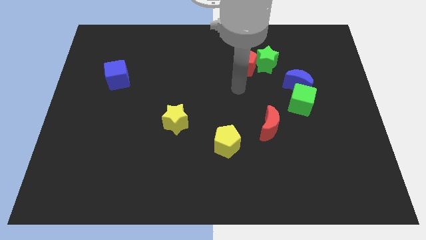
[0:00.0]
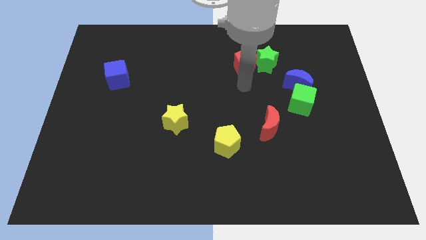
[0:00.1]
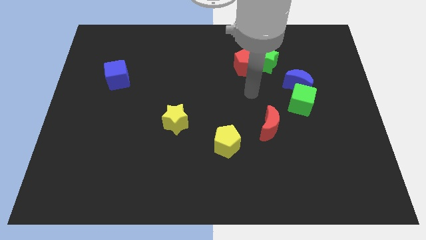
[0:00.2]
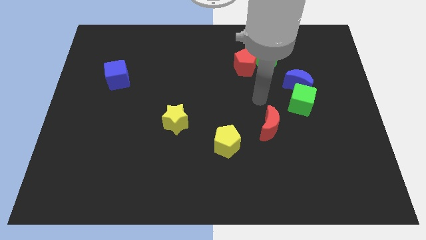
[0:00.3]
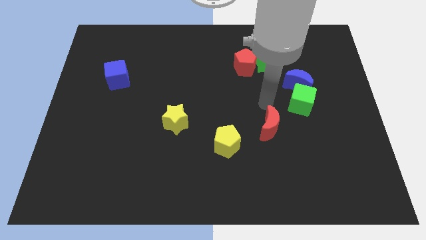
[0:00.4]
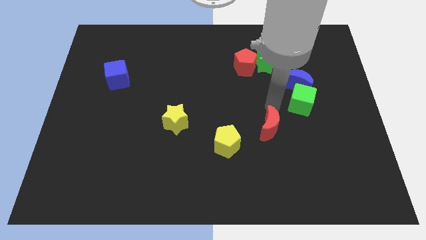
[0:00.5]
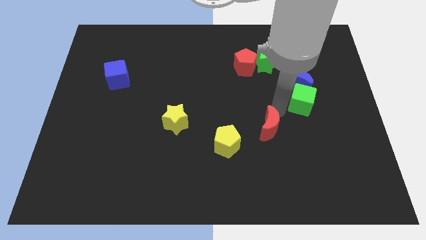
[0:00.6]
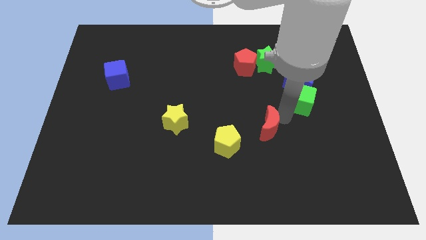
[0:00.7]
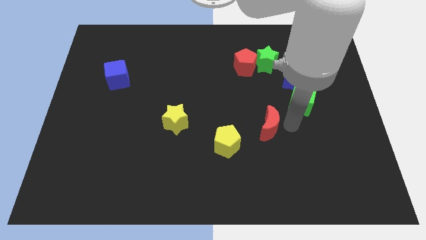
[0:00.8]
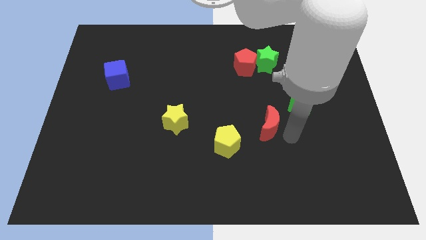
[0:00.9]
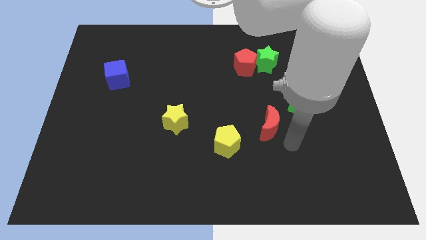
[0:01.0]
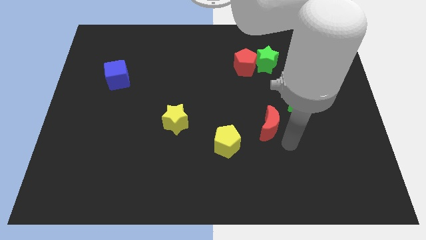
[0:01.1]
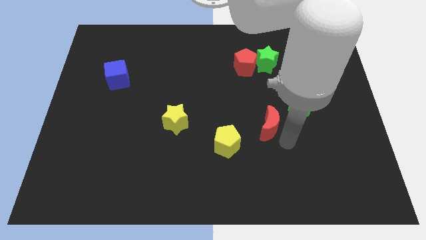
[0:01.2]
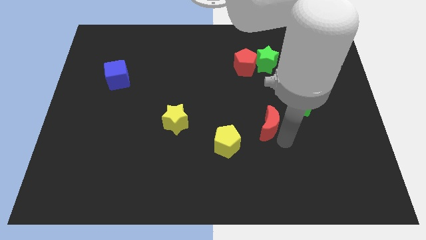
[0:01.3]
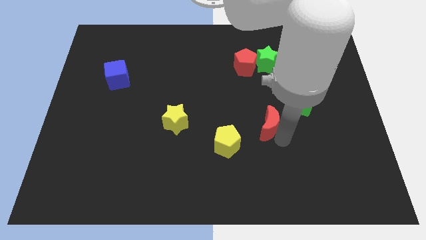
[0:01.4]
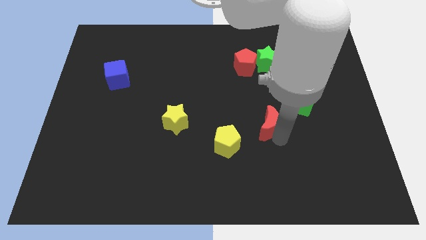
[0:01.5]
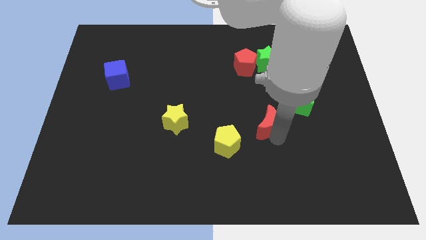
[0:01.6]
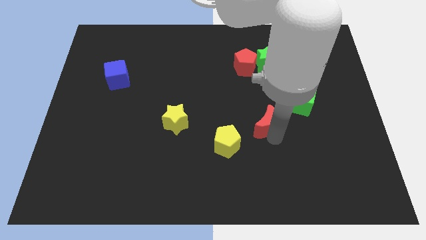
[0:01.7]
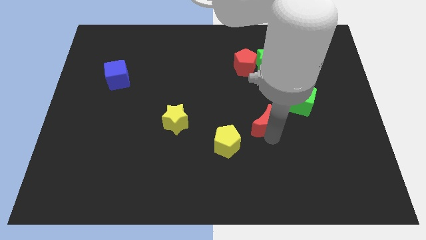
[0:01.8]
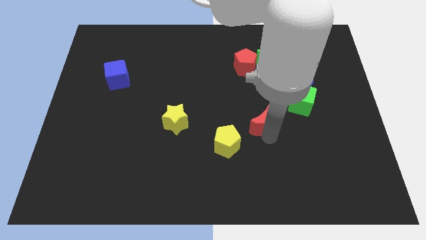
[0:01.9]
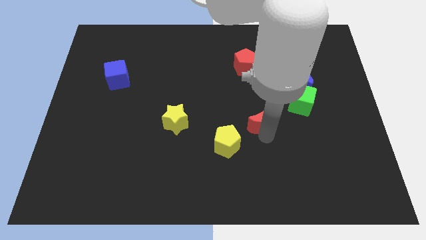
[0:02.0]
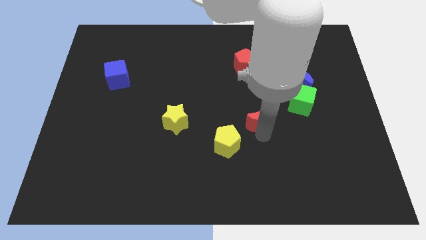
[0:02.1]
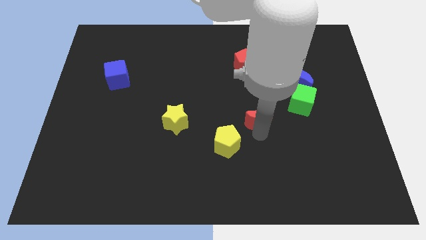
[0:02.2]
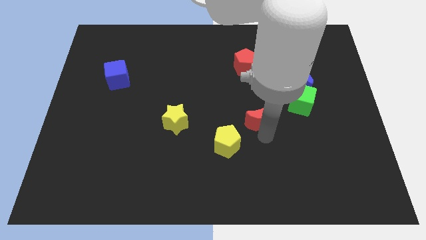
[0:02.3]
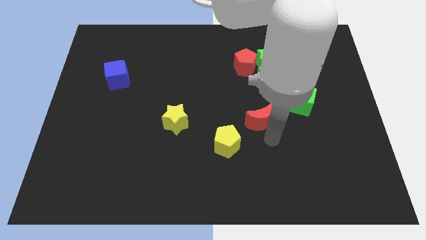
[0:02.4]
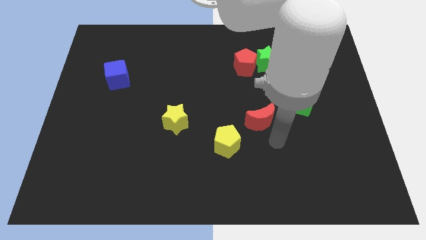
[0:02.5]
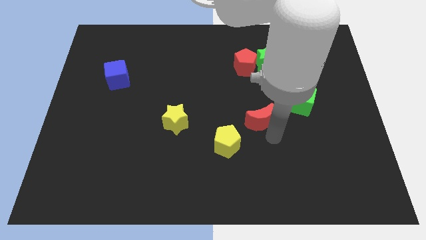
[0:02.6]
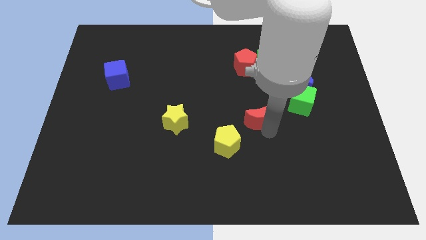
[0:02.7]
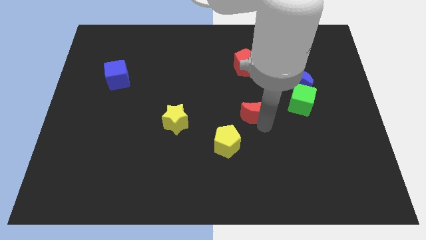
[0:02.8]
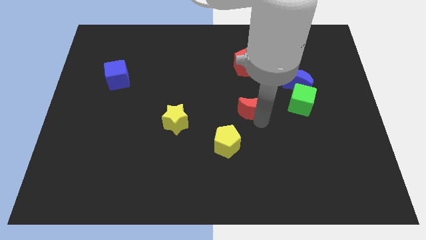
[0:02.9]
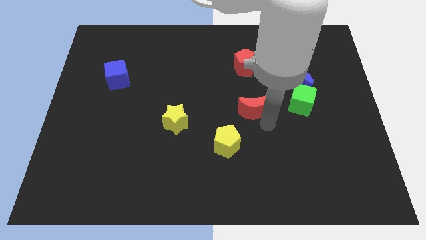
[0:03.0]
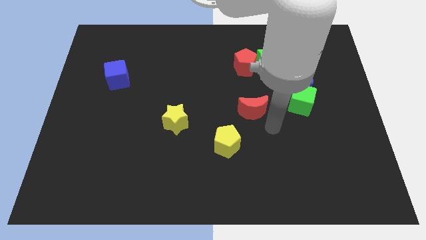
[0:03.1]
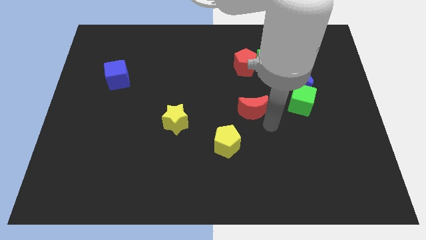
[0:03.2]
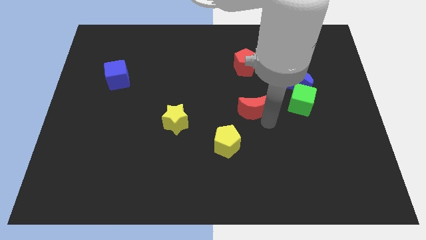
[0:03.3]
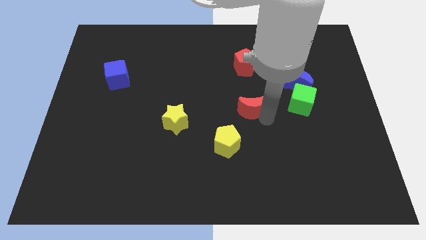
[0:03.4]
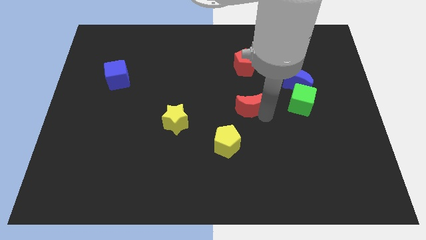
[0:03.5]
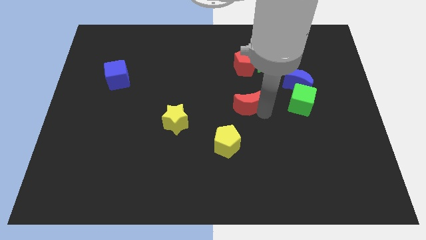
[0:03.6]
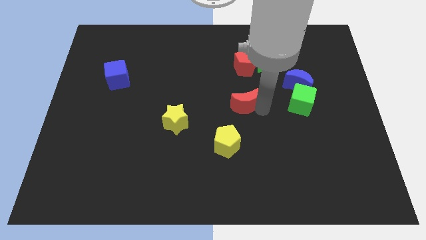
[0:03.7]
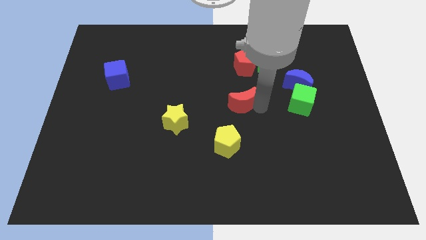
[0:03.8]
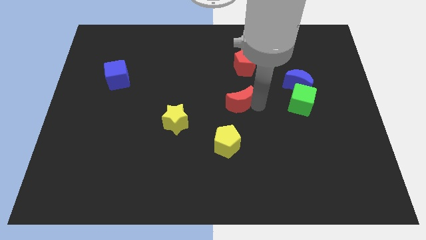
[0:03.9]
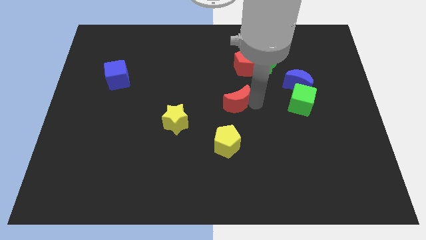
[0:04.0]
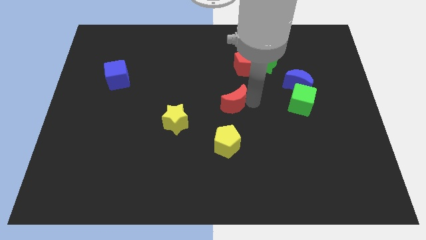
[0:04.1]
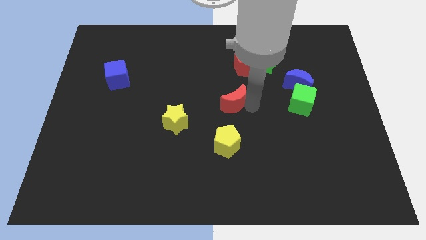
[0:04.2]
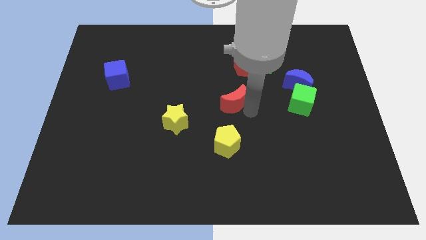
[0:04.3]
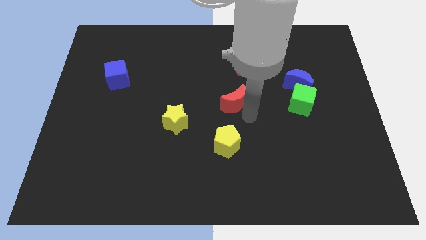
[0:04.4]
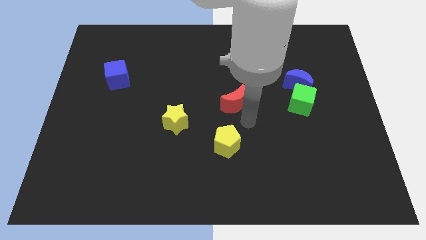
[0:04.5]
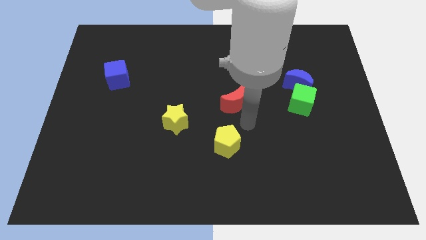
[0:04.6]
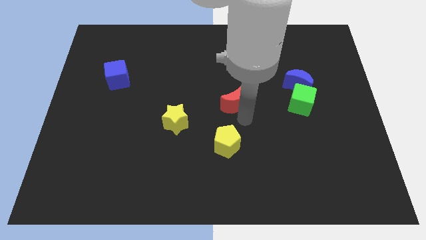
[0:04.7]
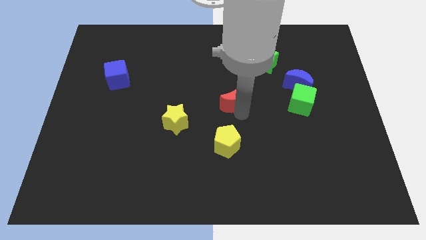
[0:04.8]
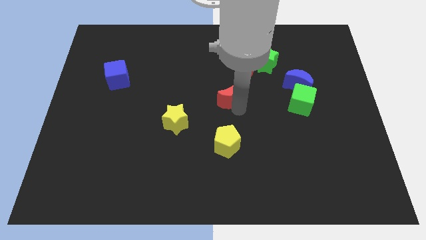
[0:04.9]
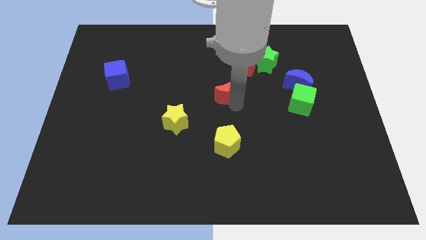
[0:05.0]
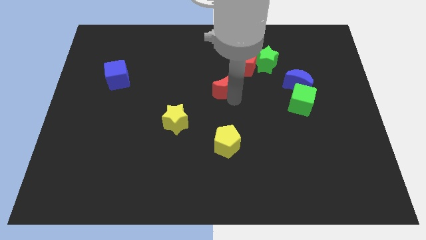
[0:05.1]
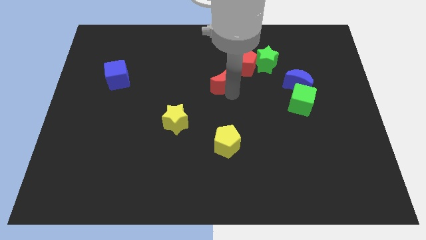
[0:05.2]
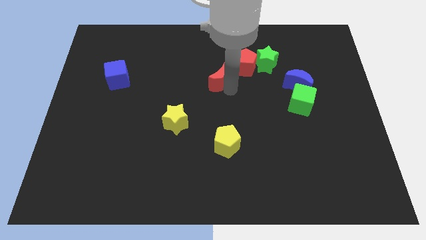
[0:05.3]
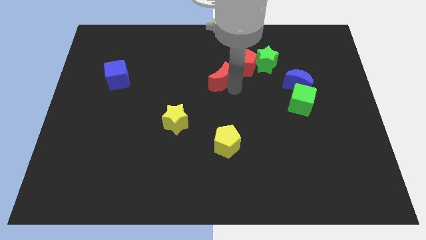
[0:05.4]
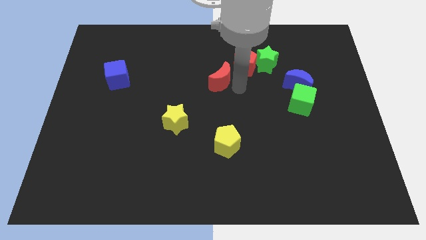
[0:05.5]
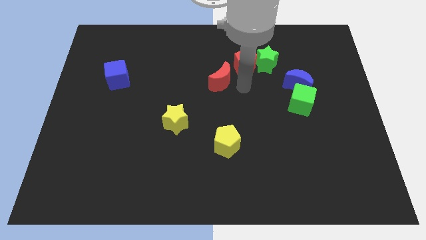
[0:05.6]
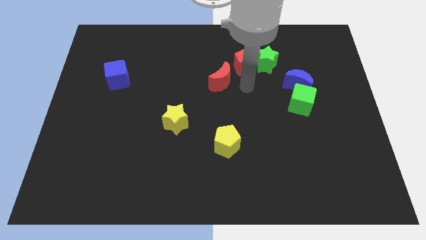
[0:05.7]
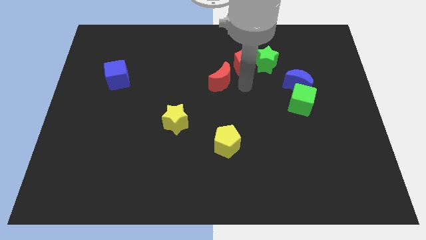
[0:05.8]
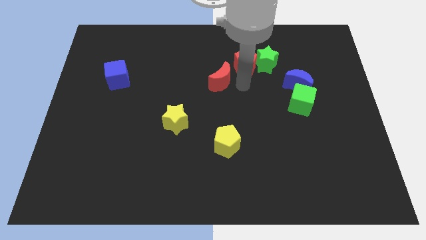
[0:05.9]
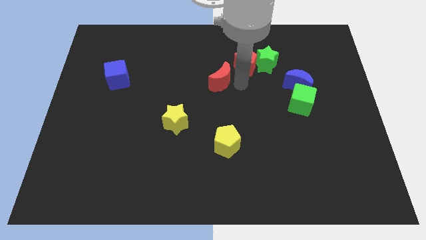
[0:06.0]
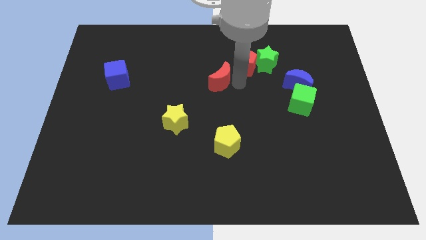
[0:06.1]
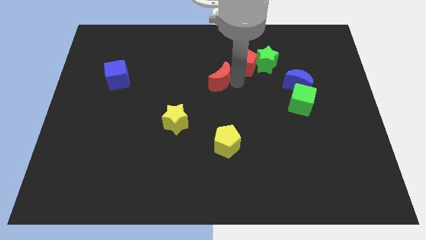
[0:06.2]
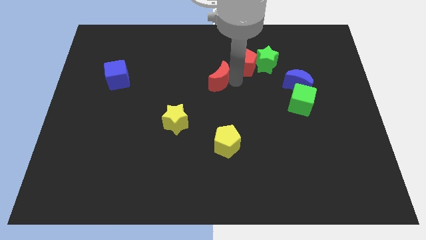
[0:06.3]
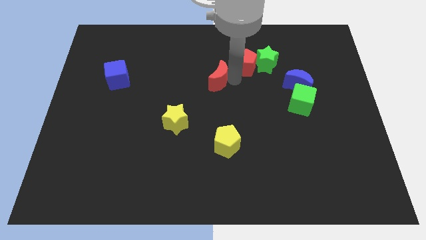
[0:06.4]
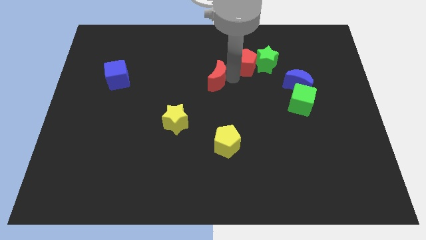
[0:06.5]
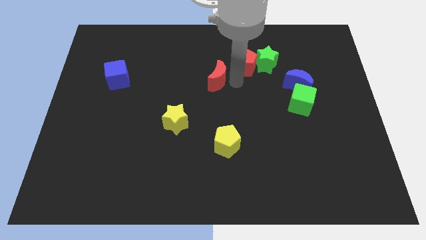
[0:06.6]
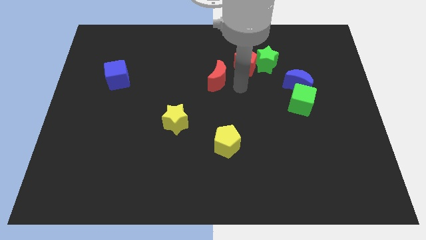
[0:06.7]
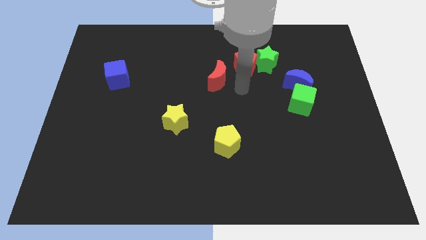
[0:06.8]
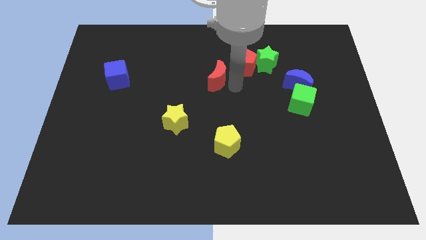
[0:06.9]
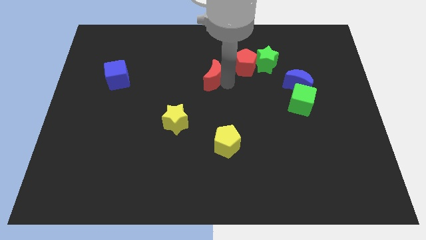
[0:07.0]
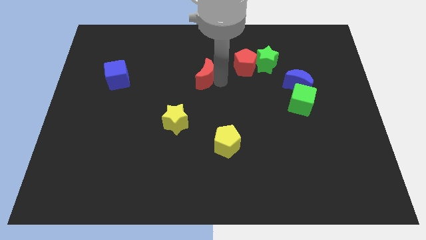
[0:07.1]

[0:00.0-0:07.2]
push the red moon up and left

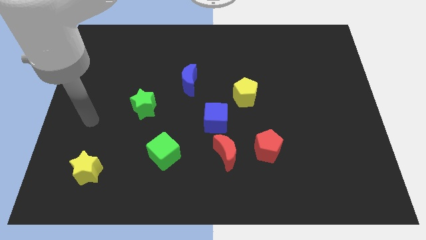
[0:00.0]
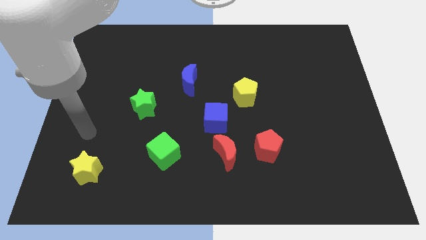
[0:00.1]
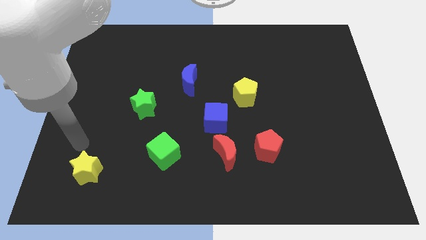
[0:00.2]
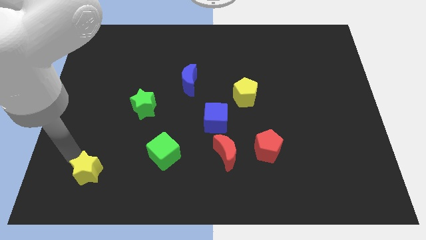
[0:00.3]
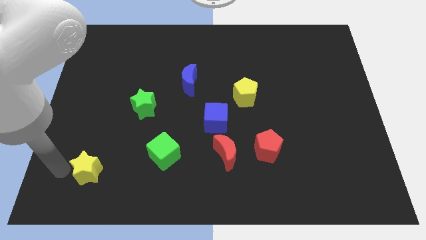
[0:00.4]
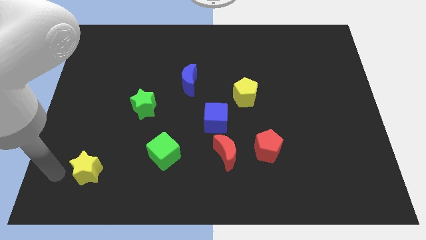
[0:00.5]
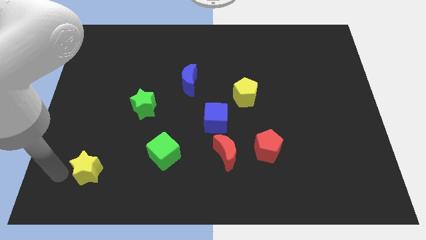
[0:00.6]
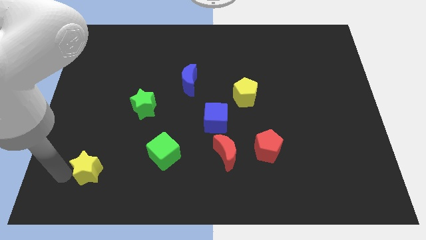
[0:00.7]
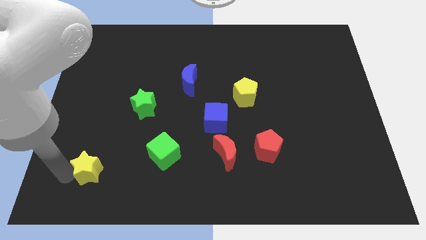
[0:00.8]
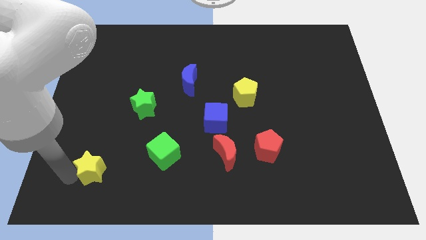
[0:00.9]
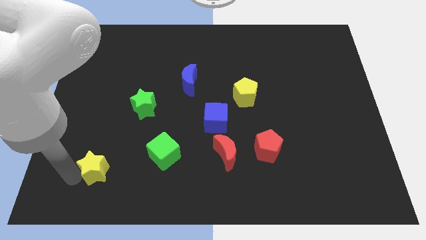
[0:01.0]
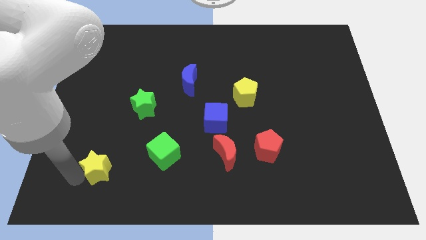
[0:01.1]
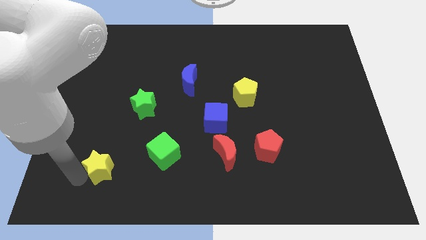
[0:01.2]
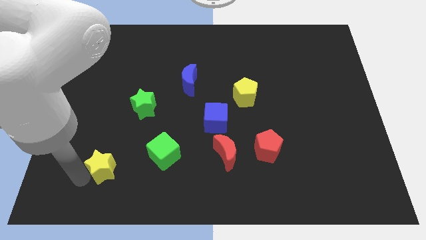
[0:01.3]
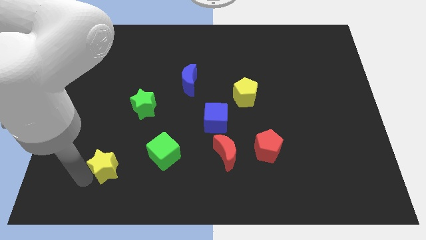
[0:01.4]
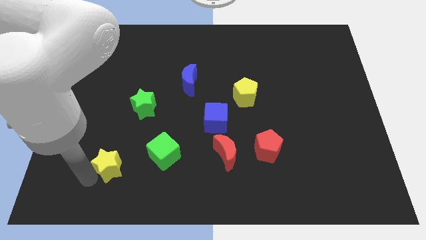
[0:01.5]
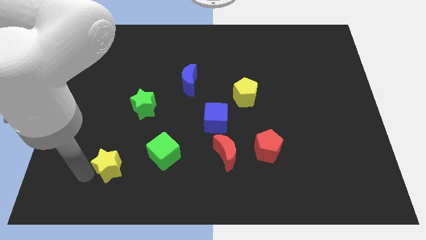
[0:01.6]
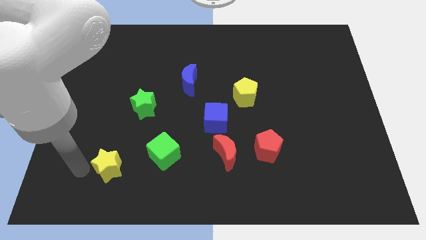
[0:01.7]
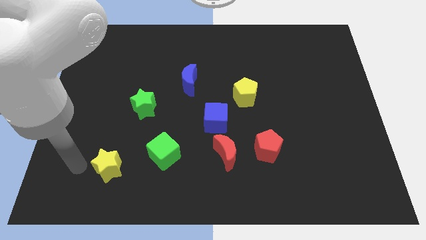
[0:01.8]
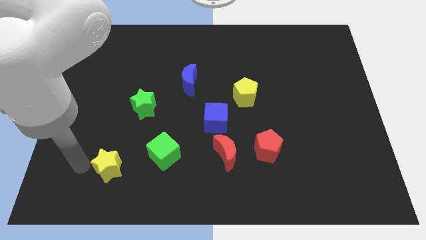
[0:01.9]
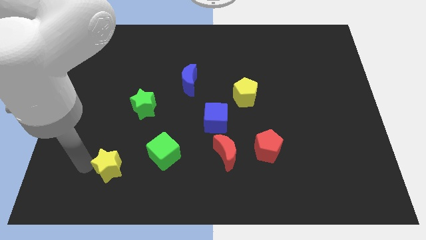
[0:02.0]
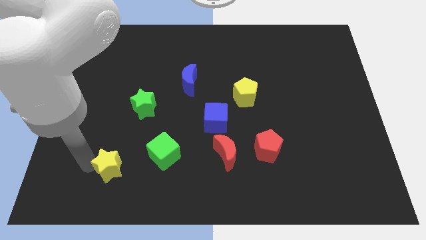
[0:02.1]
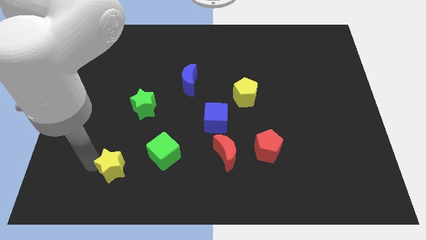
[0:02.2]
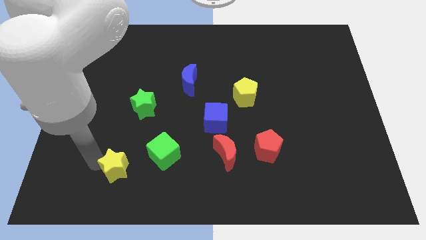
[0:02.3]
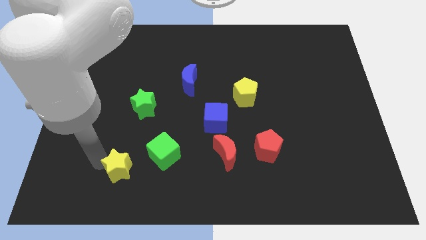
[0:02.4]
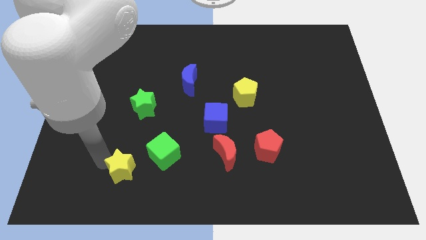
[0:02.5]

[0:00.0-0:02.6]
move the yellow star a little to the right
